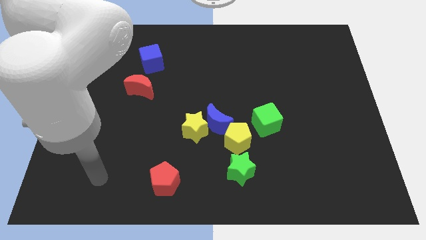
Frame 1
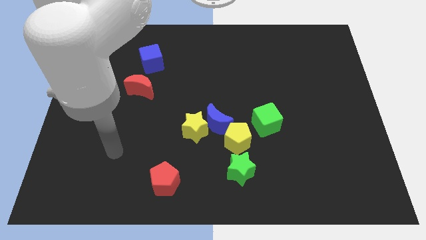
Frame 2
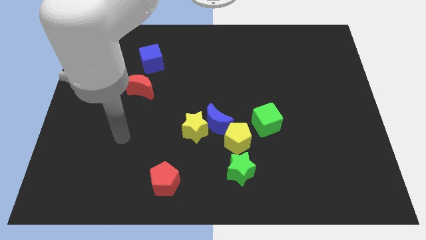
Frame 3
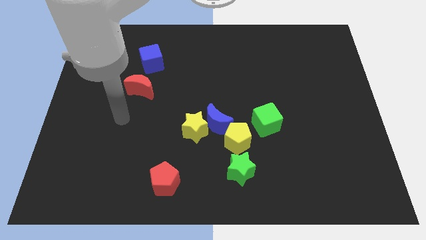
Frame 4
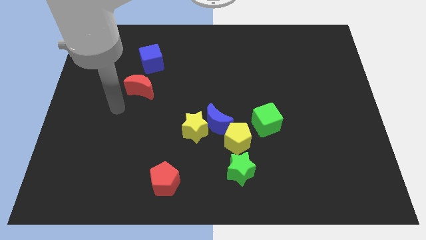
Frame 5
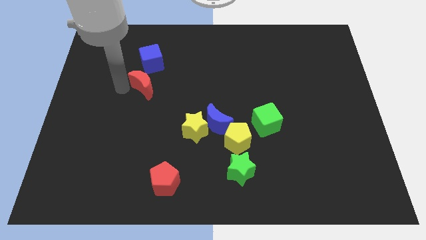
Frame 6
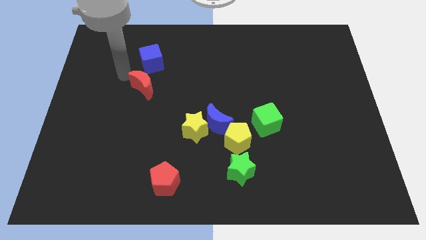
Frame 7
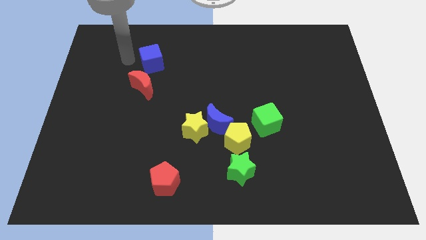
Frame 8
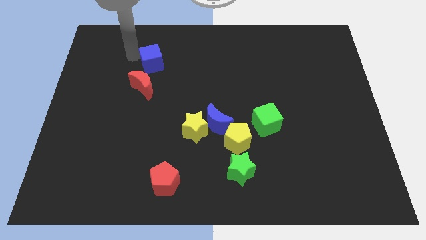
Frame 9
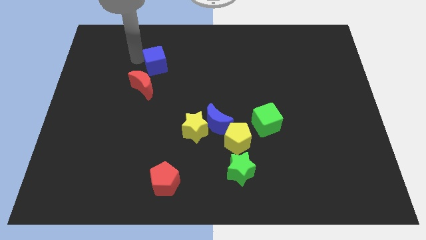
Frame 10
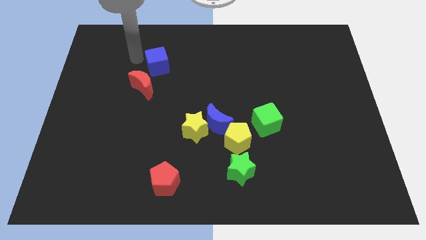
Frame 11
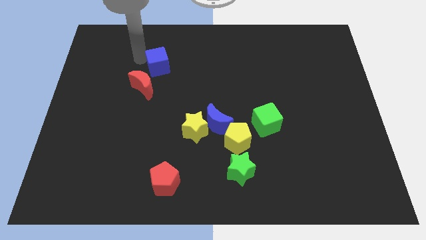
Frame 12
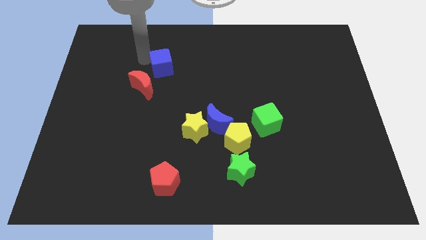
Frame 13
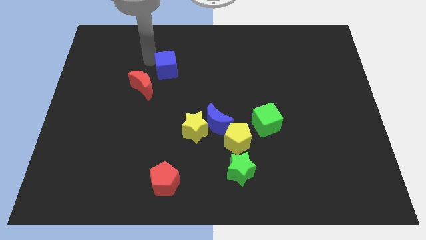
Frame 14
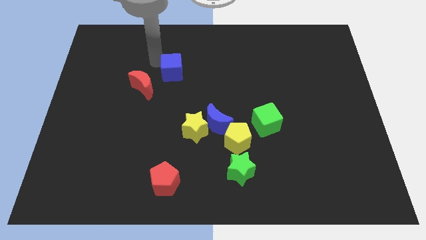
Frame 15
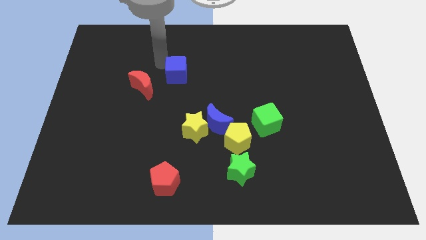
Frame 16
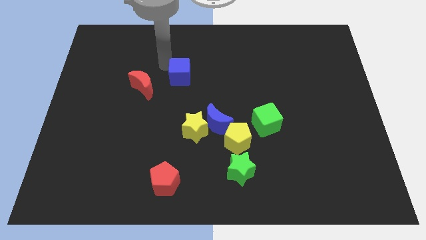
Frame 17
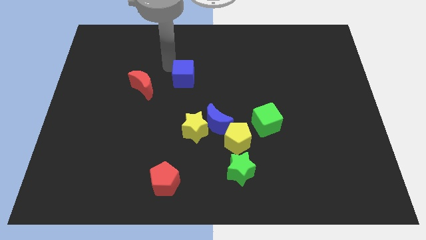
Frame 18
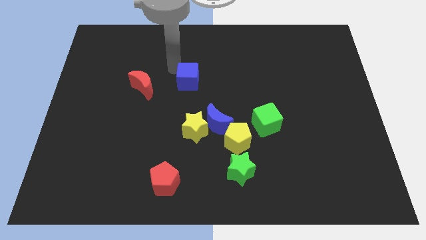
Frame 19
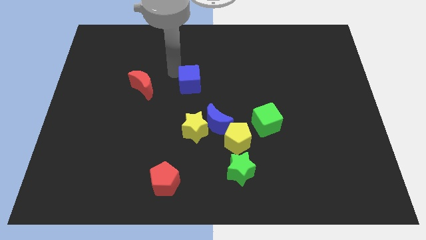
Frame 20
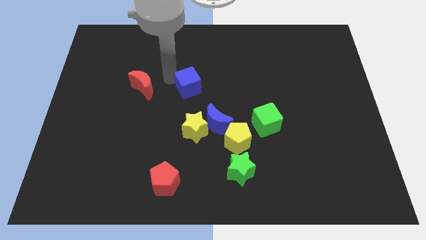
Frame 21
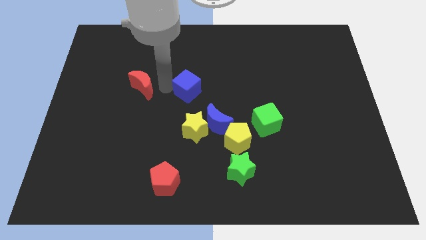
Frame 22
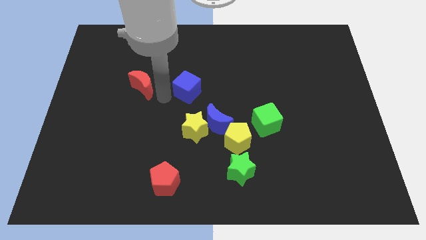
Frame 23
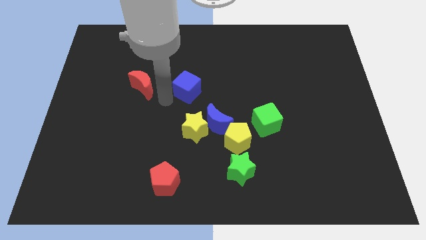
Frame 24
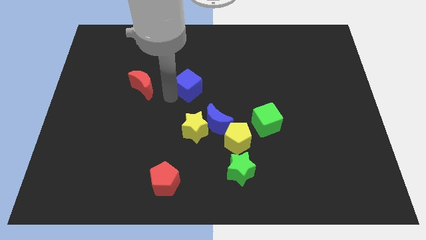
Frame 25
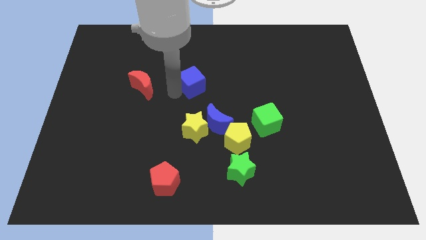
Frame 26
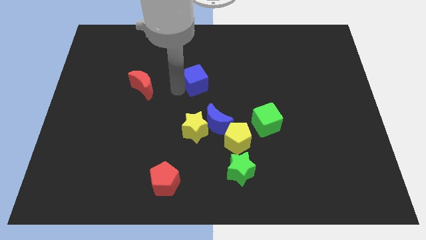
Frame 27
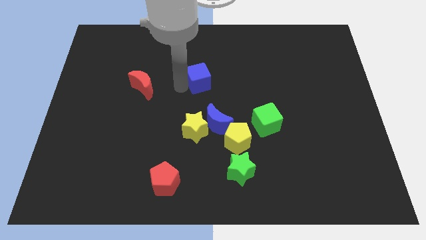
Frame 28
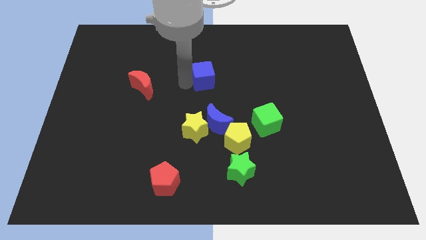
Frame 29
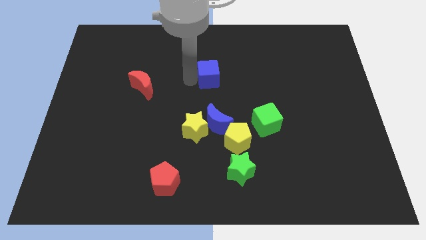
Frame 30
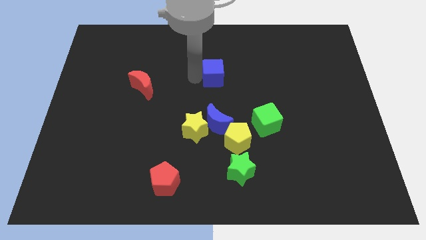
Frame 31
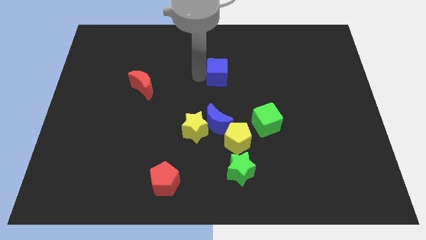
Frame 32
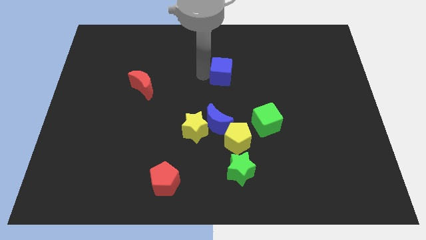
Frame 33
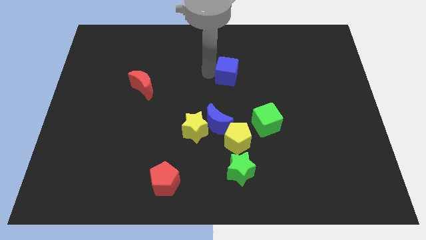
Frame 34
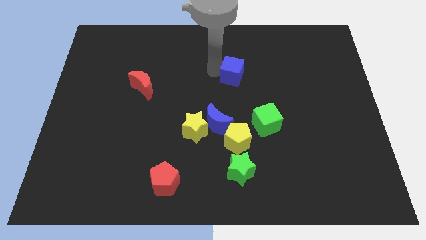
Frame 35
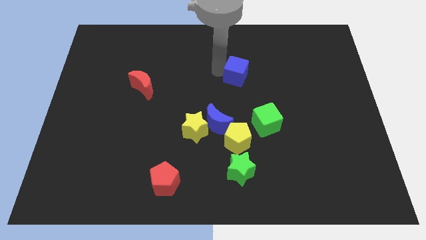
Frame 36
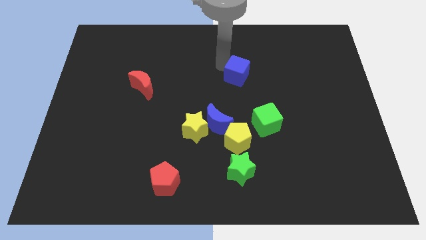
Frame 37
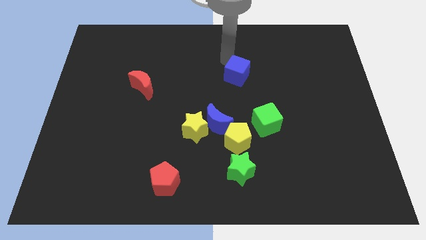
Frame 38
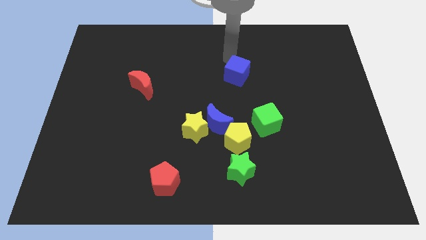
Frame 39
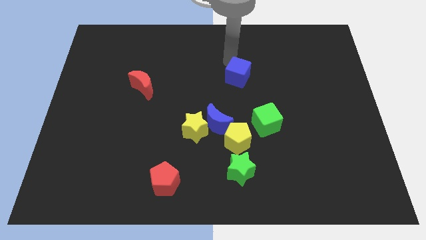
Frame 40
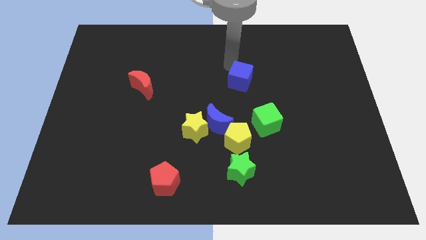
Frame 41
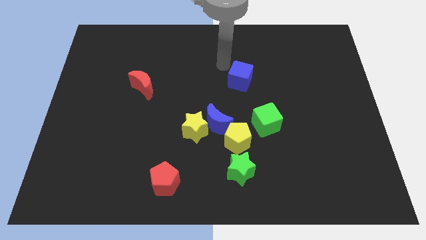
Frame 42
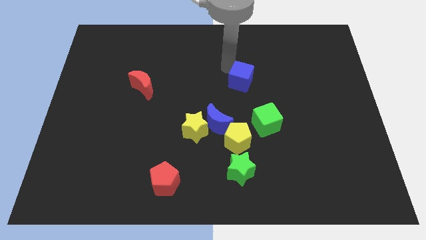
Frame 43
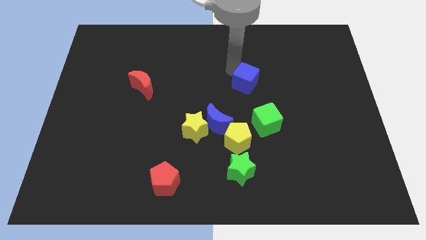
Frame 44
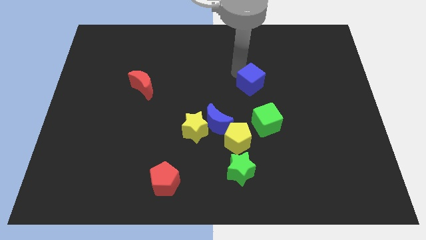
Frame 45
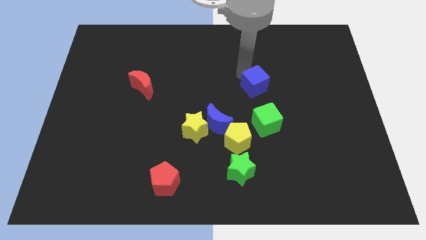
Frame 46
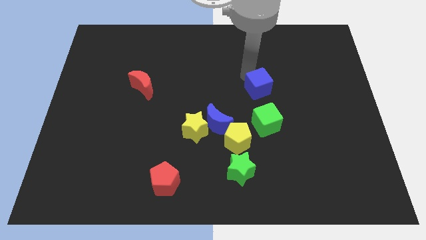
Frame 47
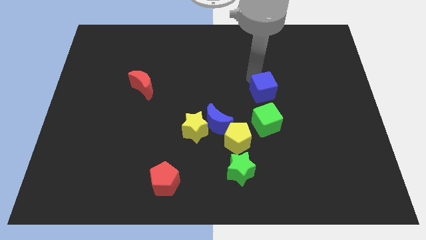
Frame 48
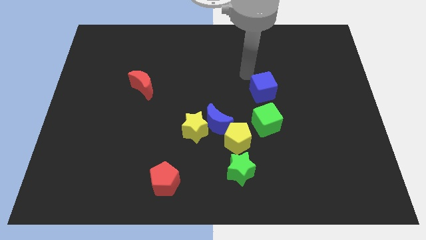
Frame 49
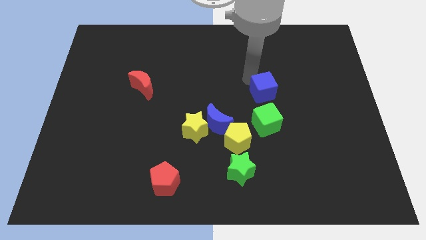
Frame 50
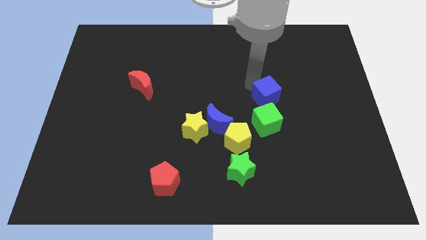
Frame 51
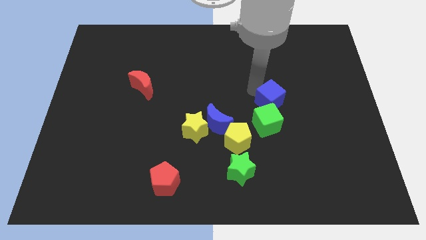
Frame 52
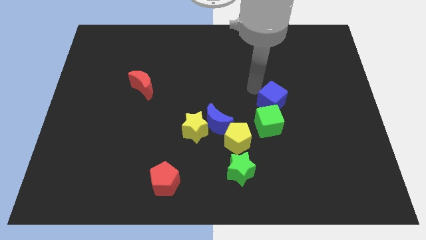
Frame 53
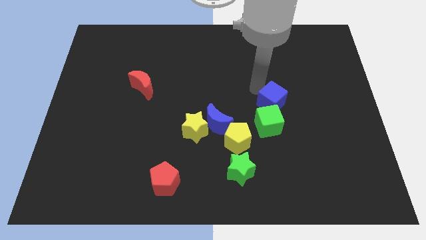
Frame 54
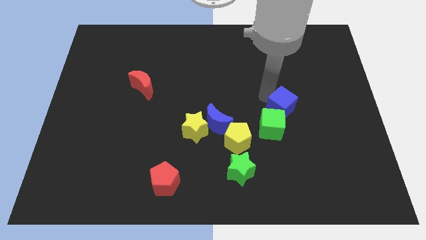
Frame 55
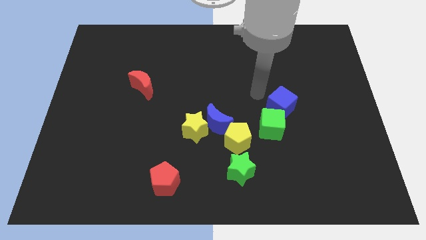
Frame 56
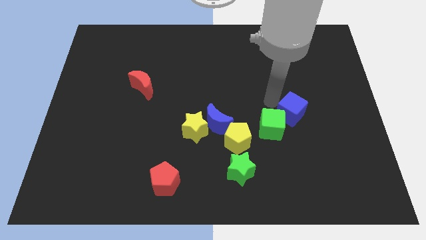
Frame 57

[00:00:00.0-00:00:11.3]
slide the blue cube to the right side of the green cube

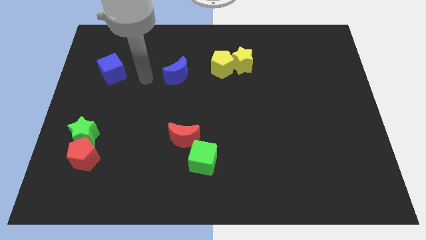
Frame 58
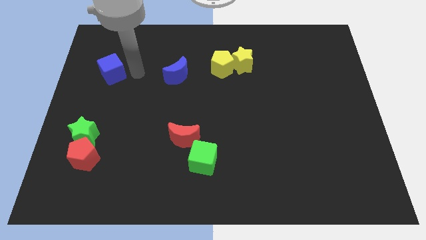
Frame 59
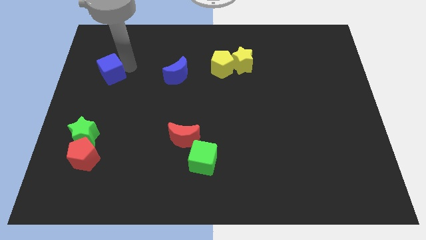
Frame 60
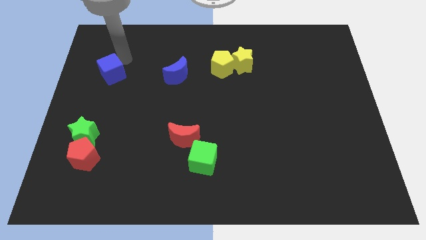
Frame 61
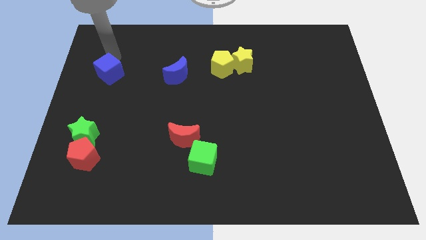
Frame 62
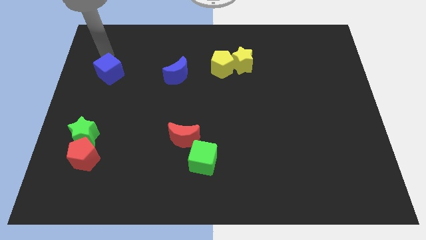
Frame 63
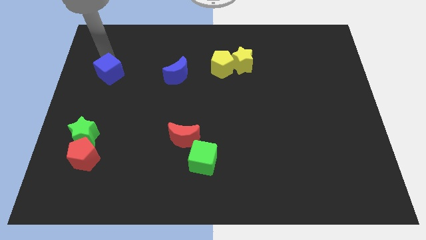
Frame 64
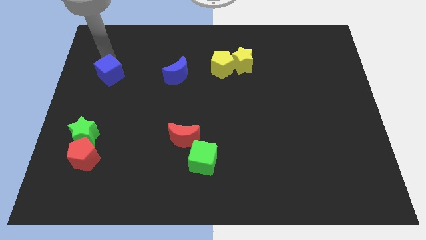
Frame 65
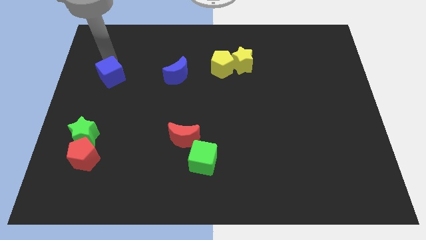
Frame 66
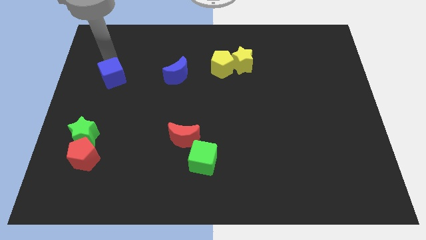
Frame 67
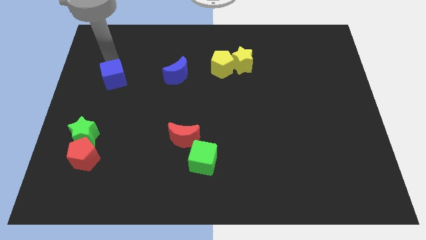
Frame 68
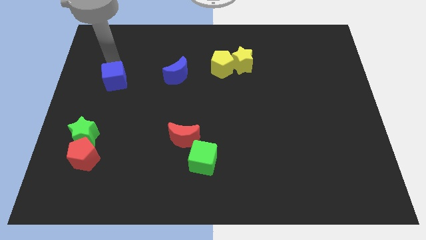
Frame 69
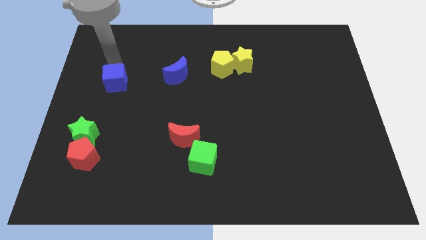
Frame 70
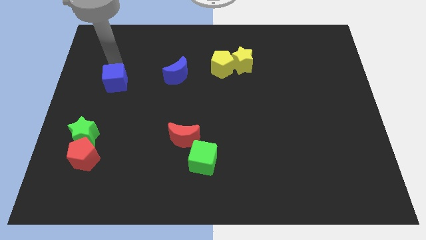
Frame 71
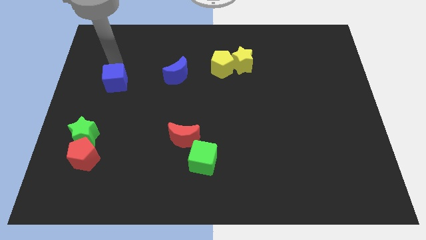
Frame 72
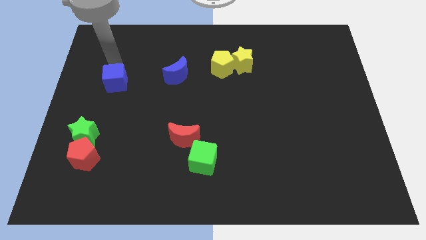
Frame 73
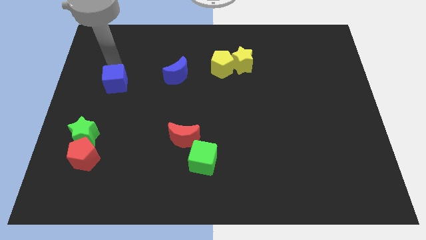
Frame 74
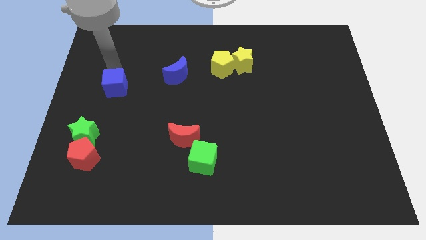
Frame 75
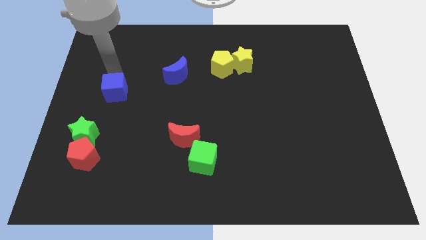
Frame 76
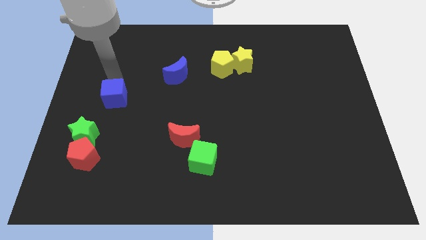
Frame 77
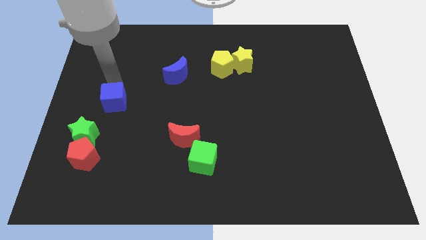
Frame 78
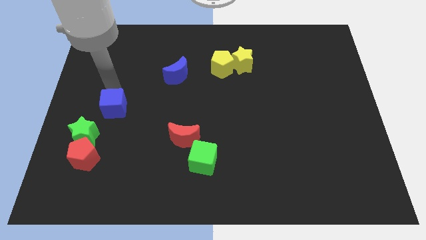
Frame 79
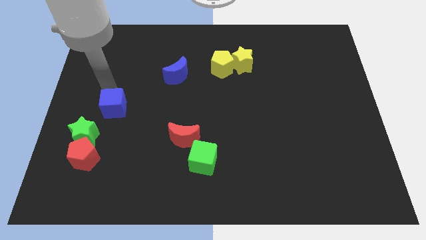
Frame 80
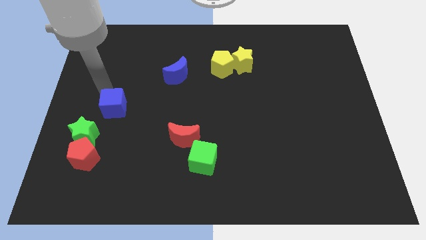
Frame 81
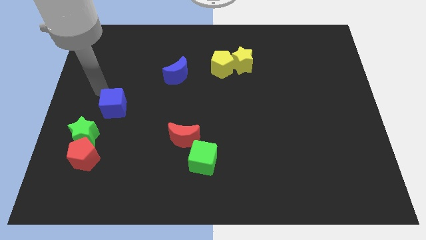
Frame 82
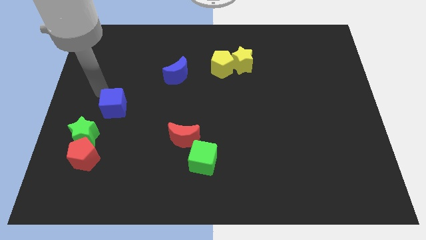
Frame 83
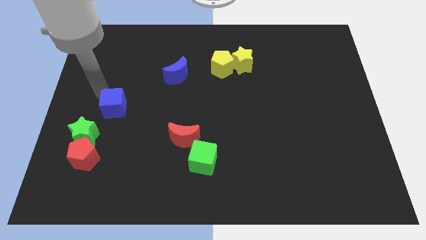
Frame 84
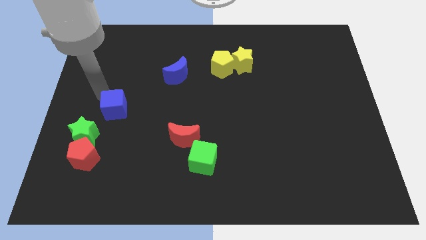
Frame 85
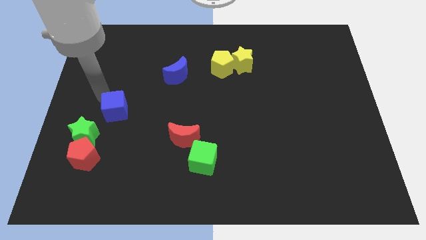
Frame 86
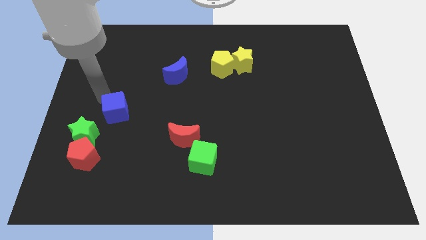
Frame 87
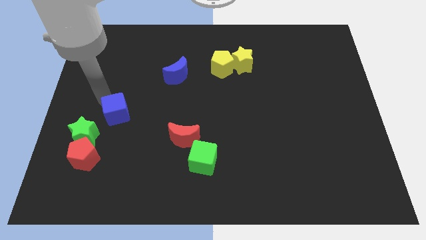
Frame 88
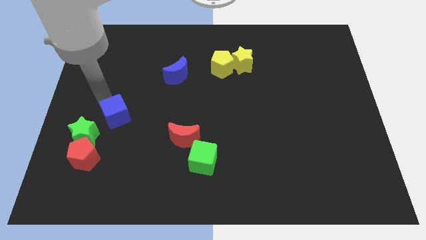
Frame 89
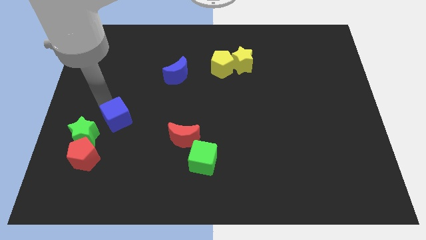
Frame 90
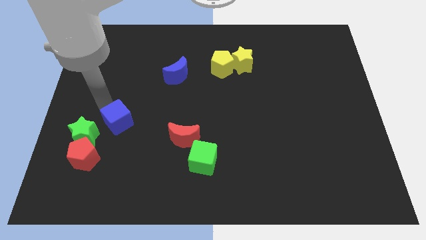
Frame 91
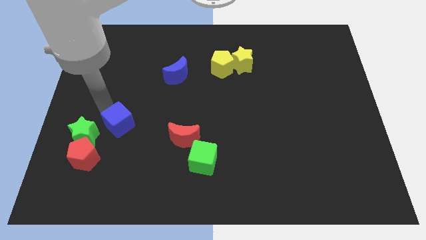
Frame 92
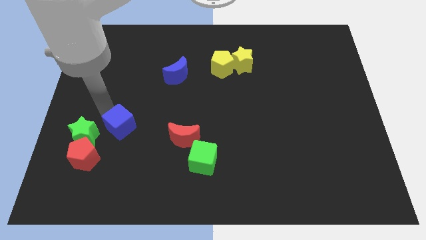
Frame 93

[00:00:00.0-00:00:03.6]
push the blue cube just left of the red moon
